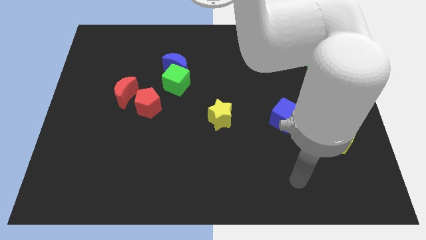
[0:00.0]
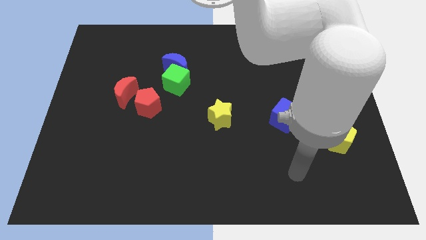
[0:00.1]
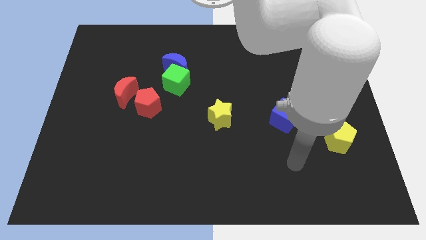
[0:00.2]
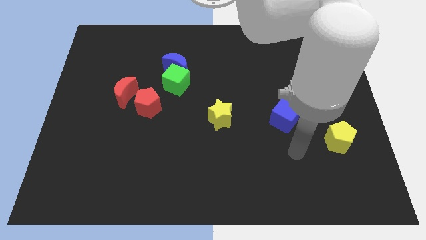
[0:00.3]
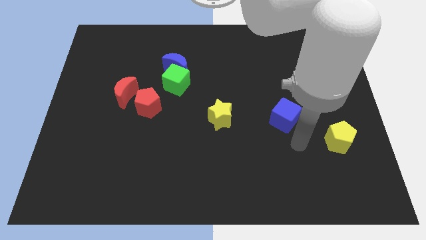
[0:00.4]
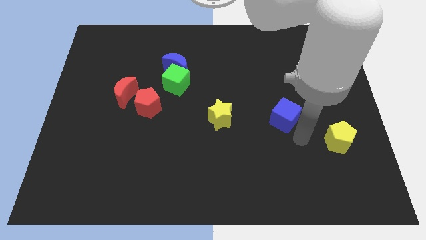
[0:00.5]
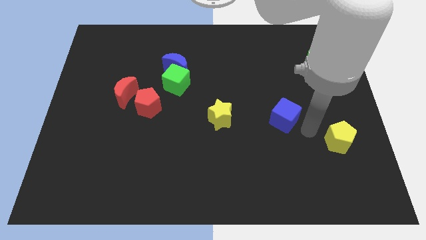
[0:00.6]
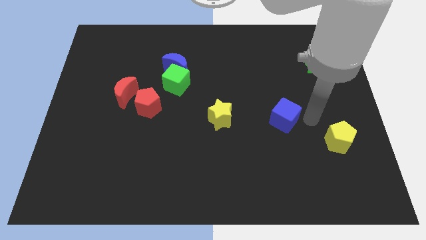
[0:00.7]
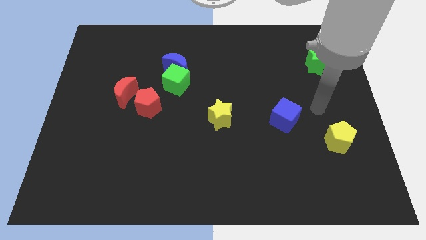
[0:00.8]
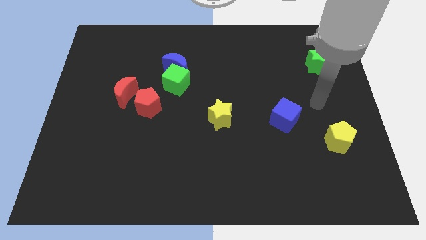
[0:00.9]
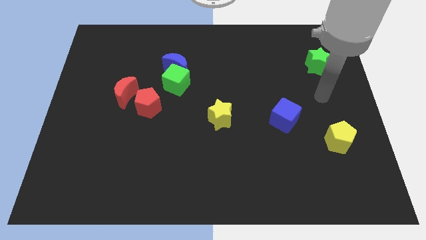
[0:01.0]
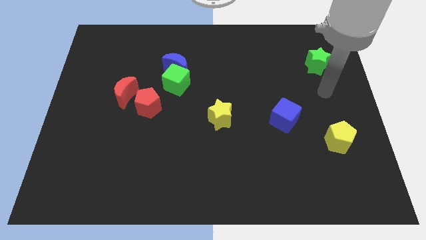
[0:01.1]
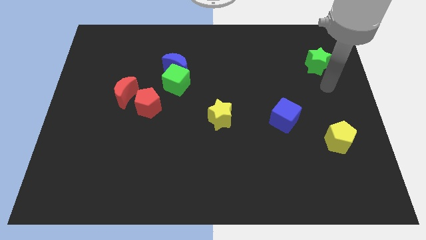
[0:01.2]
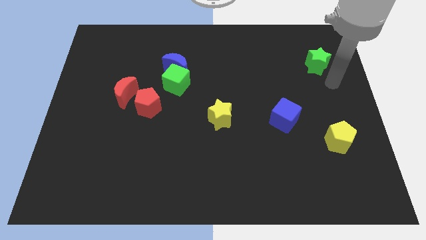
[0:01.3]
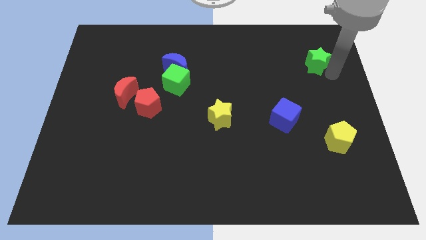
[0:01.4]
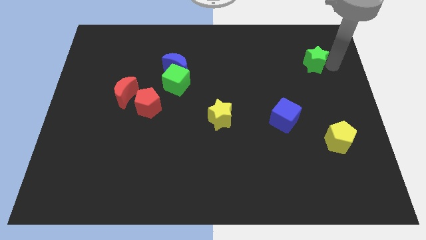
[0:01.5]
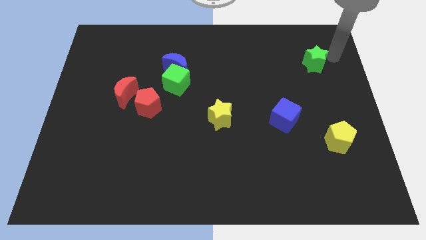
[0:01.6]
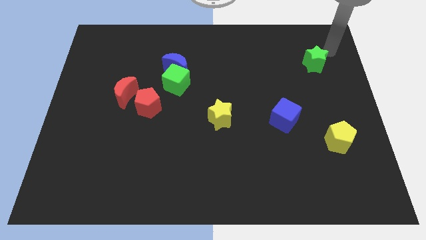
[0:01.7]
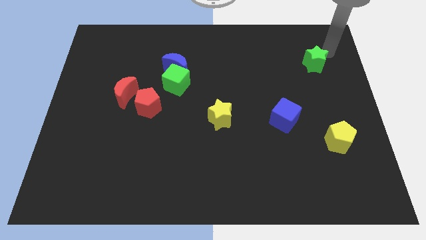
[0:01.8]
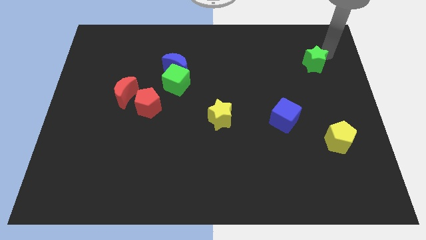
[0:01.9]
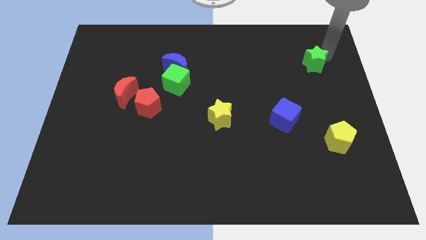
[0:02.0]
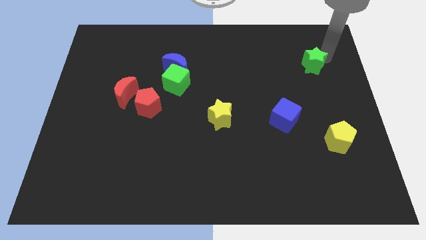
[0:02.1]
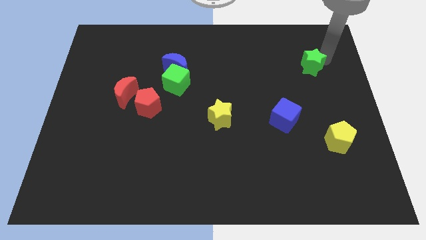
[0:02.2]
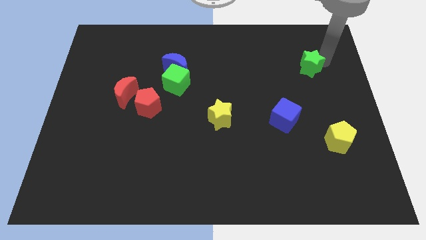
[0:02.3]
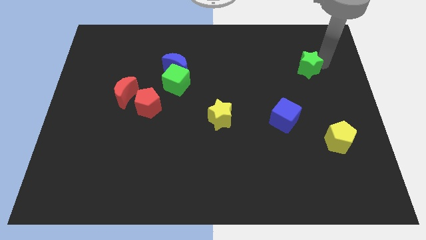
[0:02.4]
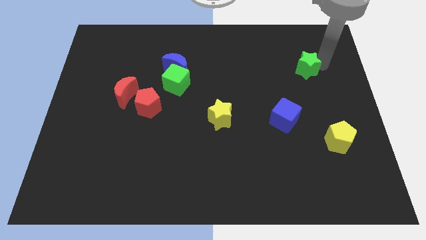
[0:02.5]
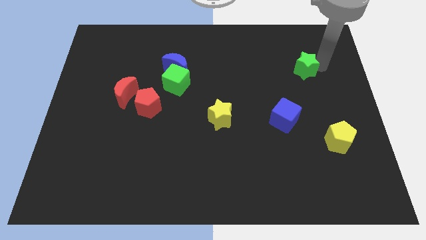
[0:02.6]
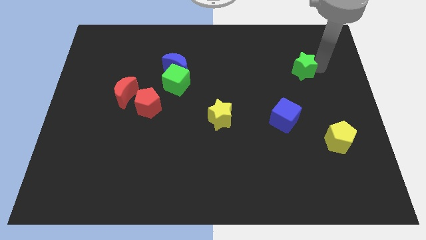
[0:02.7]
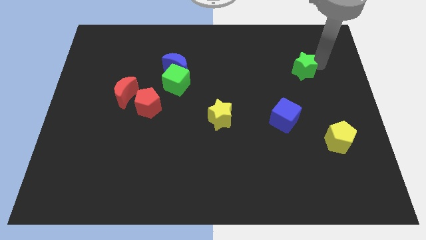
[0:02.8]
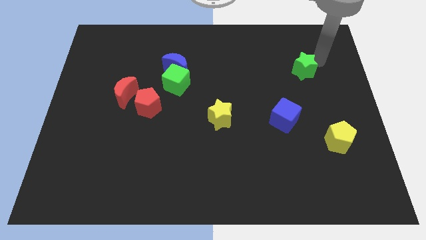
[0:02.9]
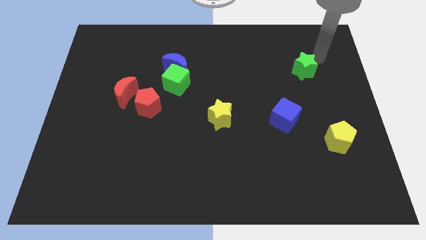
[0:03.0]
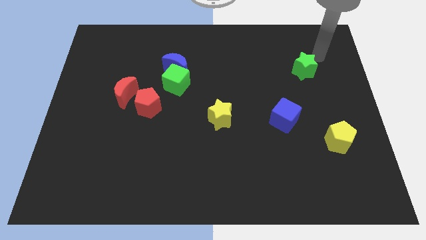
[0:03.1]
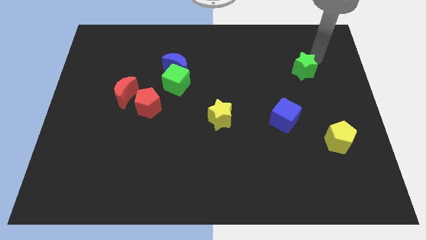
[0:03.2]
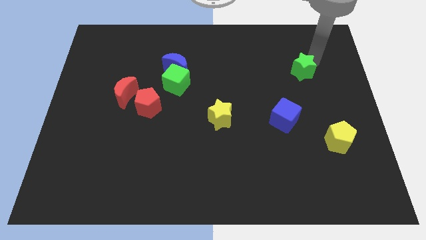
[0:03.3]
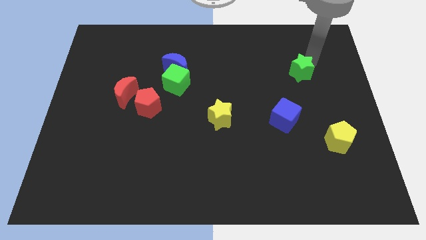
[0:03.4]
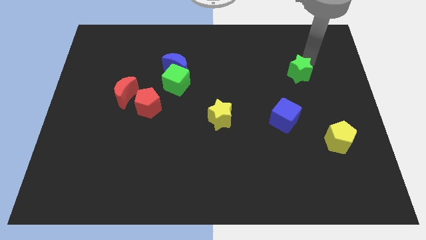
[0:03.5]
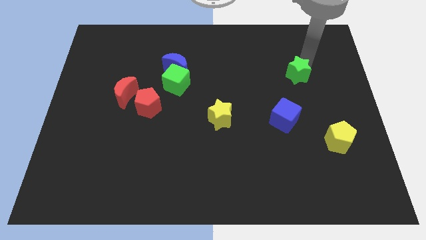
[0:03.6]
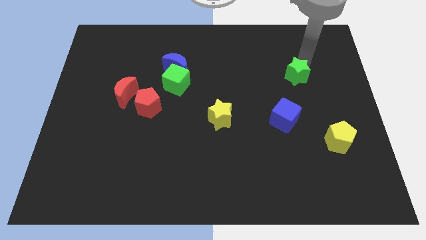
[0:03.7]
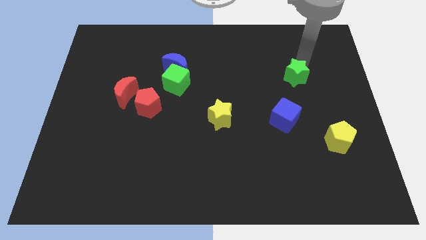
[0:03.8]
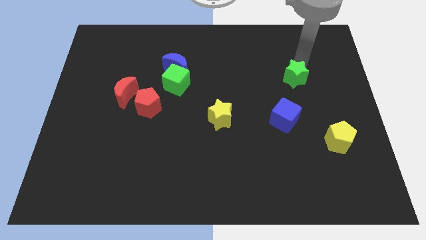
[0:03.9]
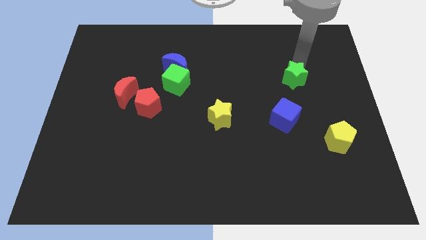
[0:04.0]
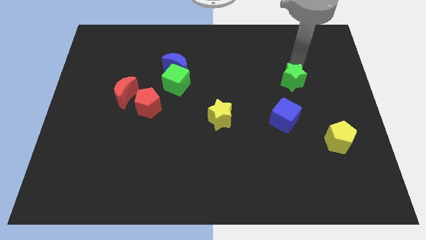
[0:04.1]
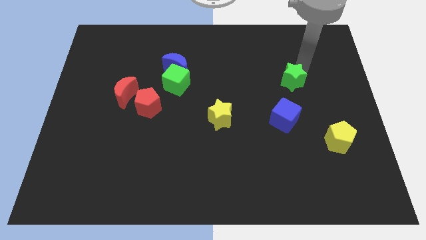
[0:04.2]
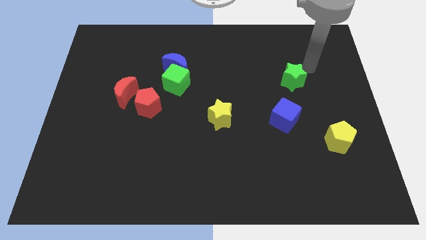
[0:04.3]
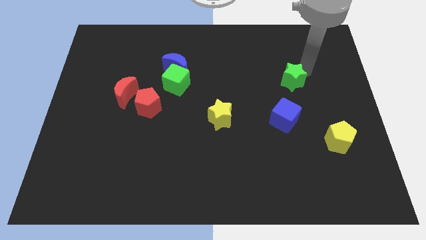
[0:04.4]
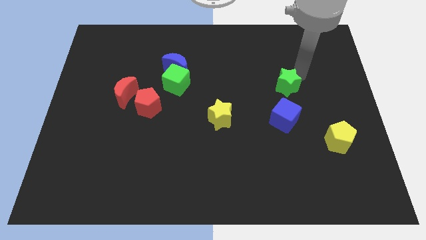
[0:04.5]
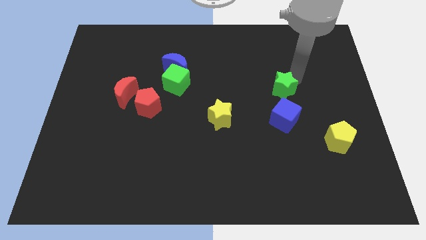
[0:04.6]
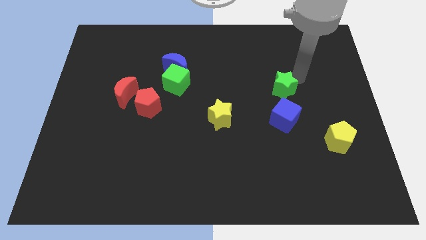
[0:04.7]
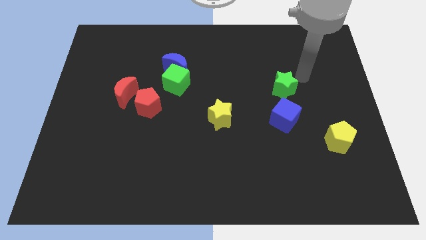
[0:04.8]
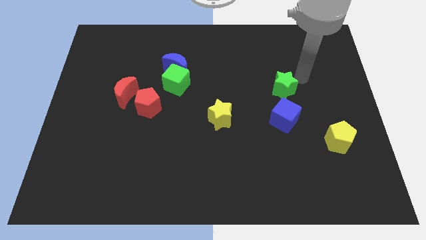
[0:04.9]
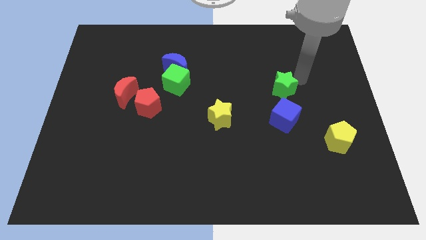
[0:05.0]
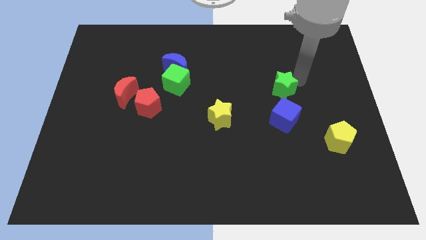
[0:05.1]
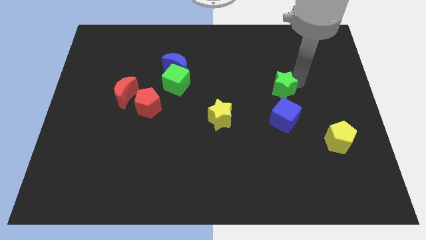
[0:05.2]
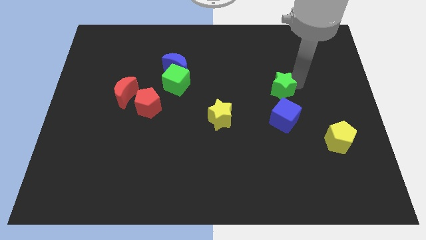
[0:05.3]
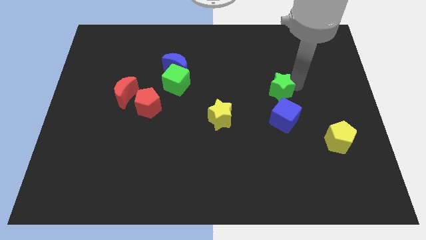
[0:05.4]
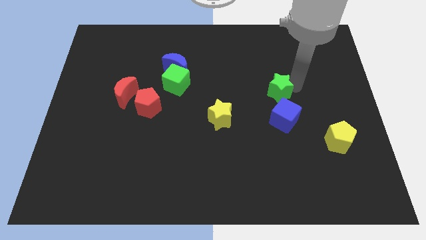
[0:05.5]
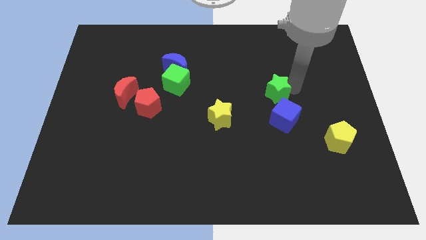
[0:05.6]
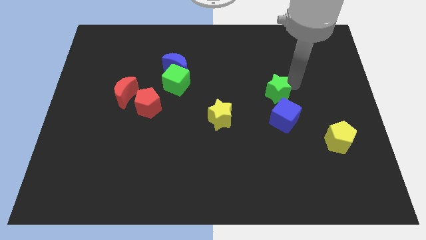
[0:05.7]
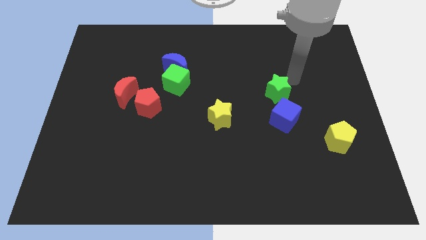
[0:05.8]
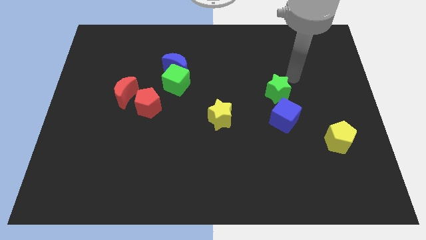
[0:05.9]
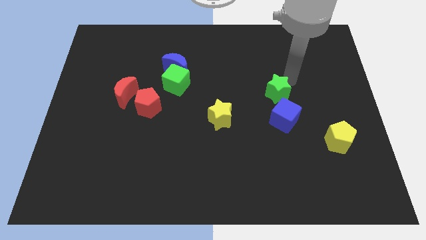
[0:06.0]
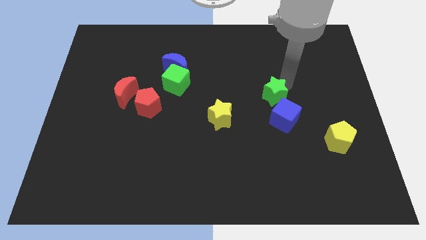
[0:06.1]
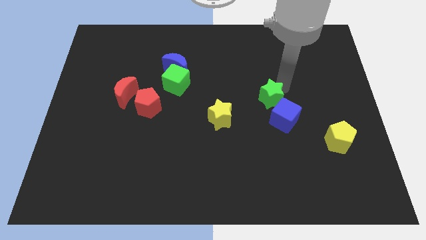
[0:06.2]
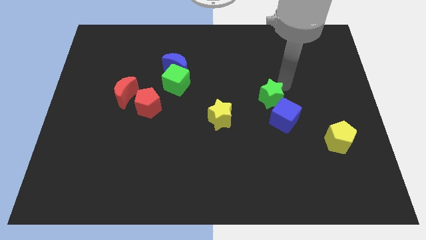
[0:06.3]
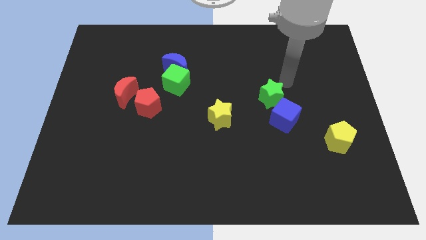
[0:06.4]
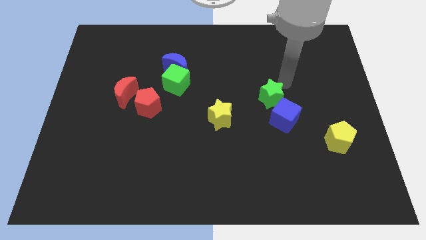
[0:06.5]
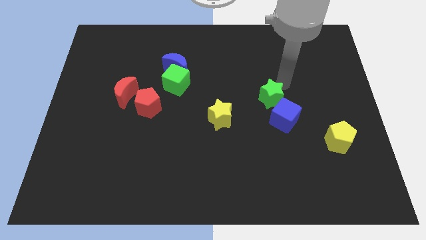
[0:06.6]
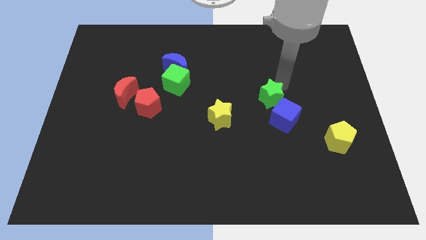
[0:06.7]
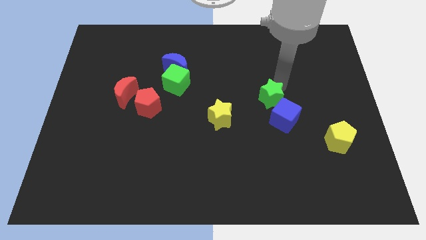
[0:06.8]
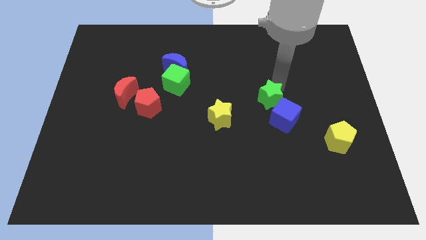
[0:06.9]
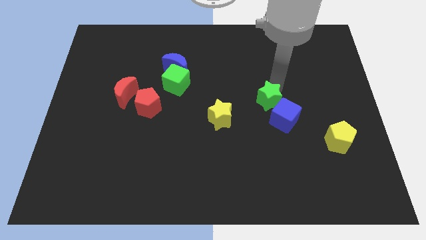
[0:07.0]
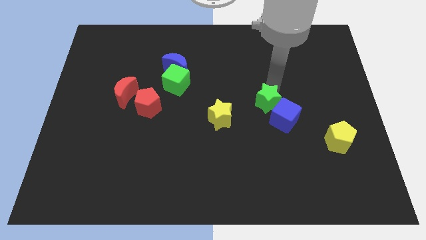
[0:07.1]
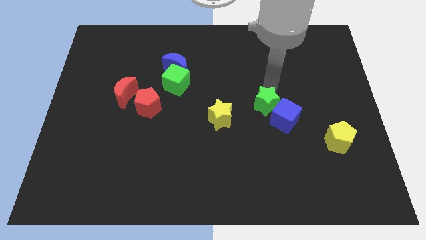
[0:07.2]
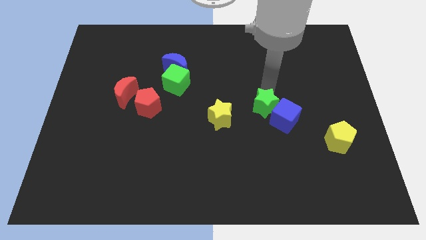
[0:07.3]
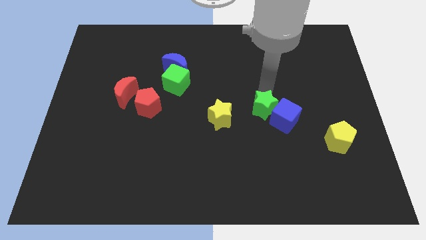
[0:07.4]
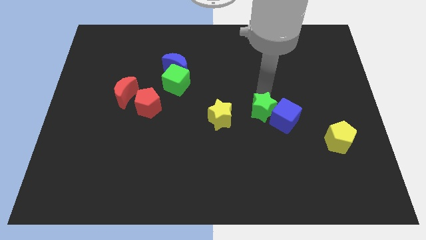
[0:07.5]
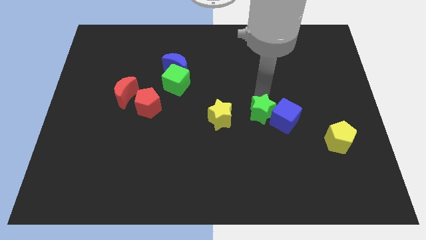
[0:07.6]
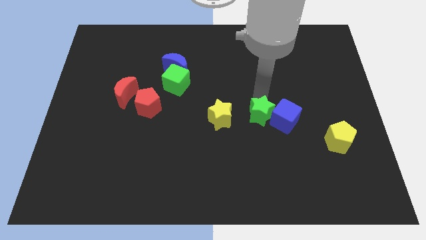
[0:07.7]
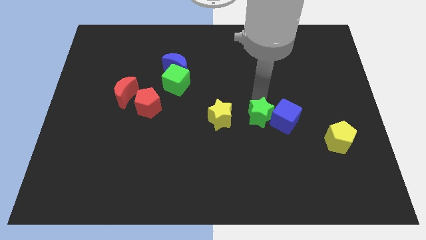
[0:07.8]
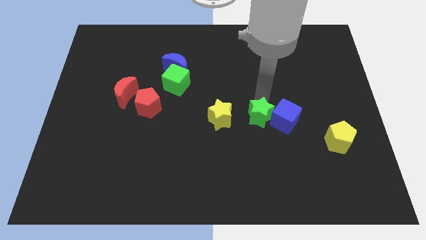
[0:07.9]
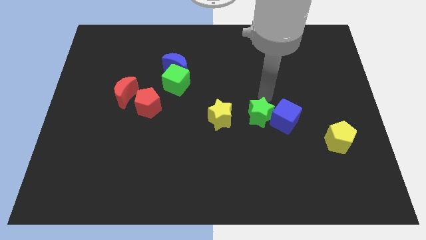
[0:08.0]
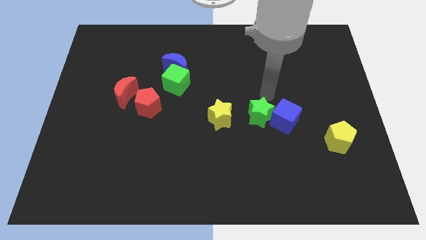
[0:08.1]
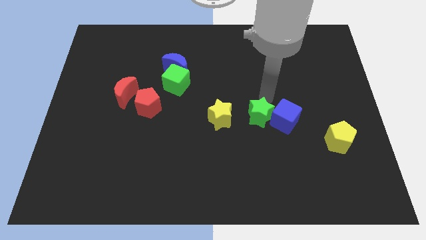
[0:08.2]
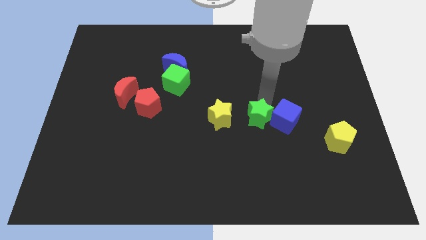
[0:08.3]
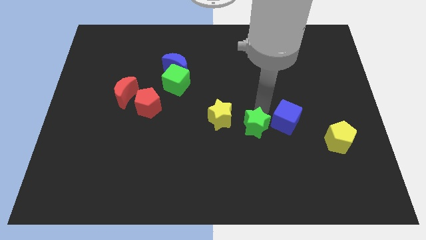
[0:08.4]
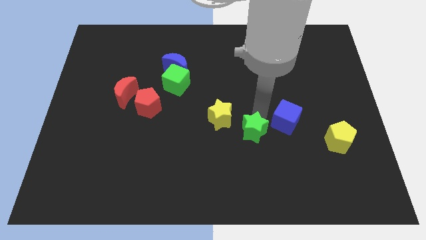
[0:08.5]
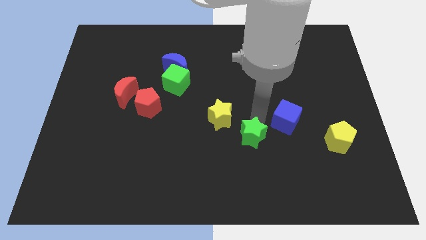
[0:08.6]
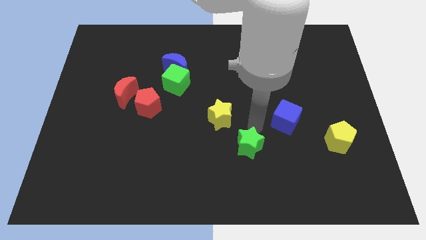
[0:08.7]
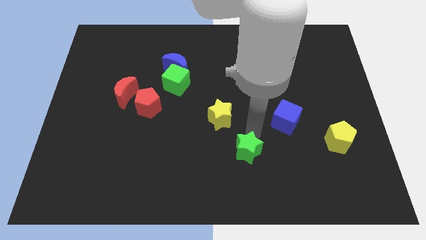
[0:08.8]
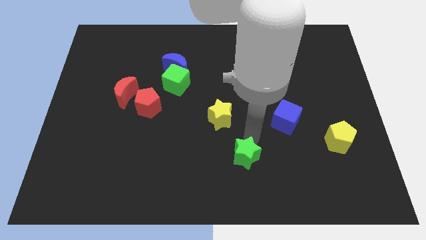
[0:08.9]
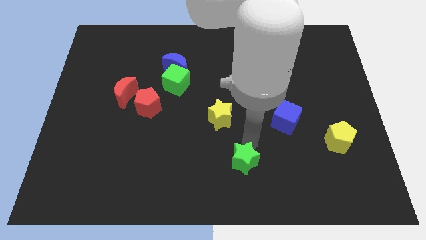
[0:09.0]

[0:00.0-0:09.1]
put the green star to the bottom
